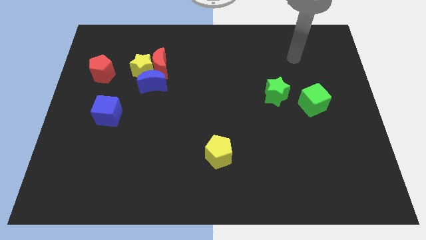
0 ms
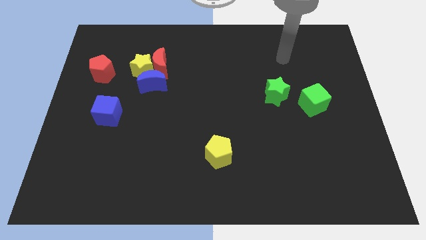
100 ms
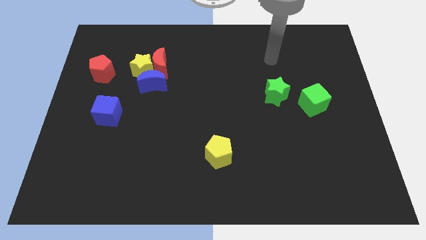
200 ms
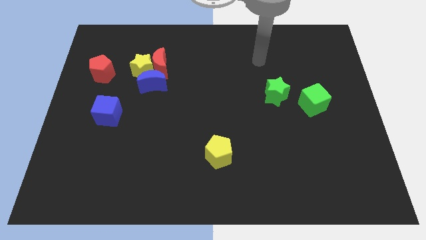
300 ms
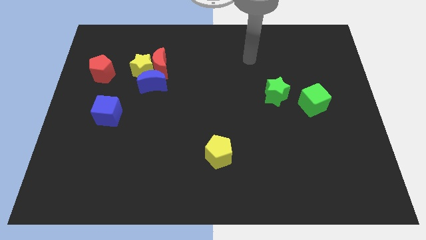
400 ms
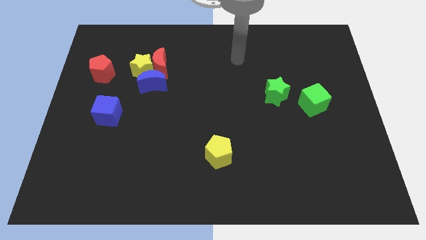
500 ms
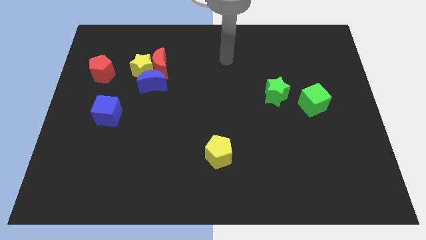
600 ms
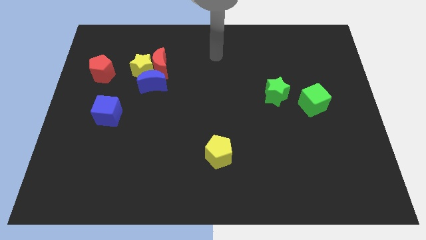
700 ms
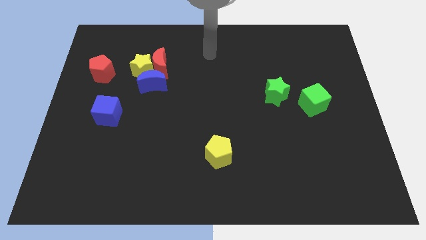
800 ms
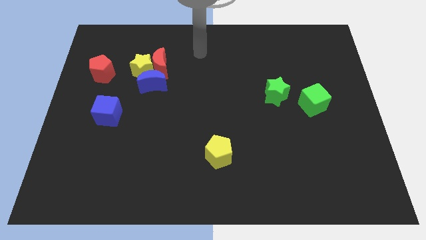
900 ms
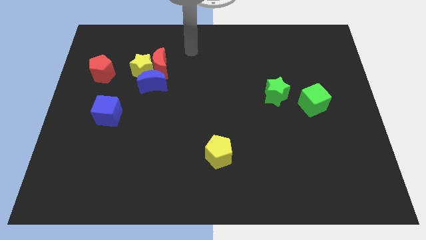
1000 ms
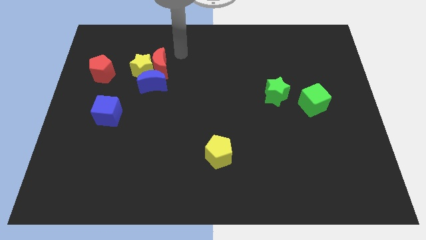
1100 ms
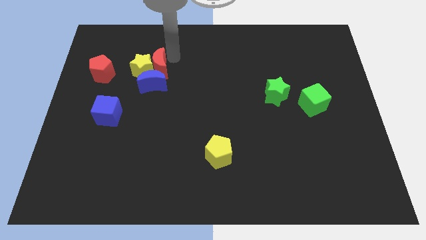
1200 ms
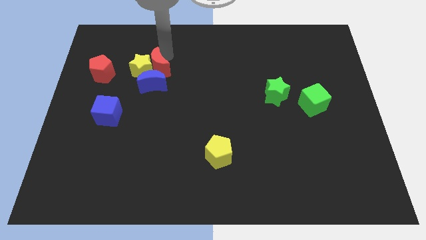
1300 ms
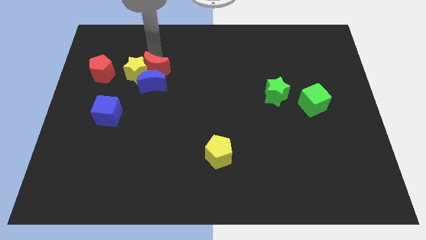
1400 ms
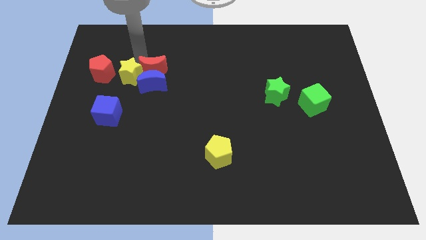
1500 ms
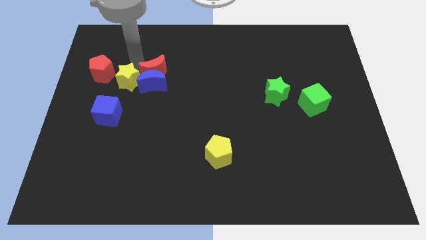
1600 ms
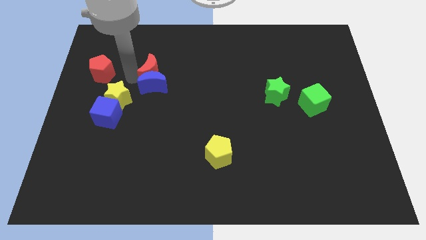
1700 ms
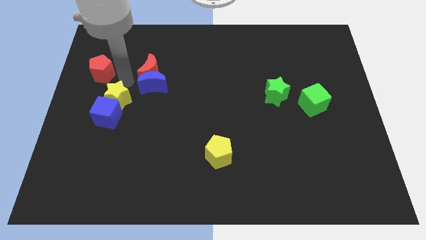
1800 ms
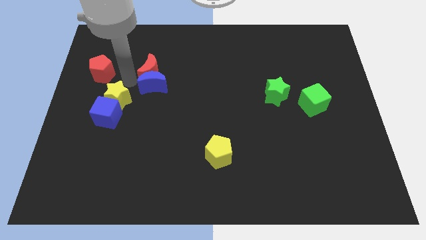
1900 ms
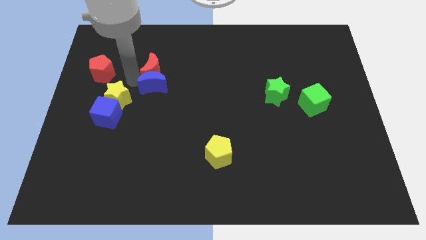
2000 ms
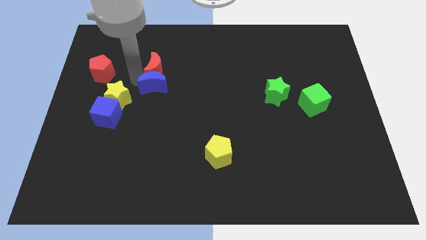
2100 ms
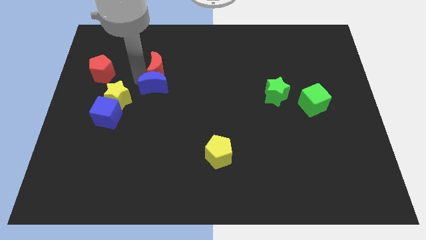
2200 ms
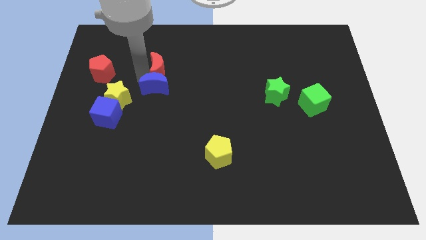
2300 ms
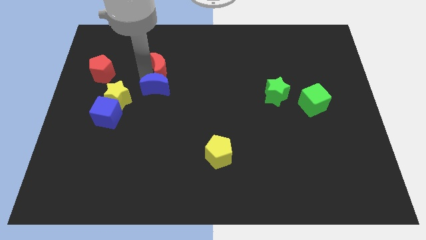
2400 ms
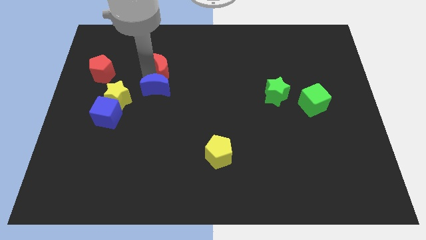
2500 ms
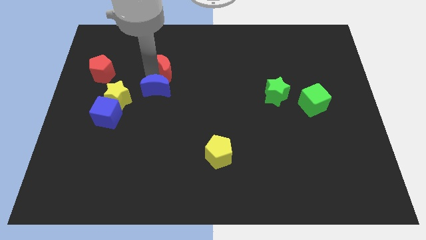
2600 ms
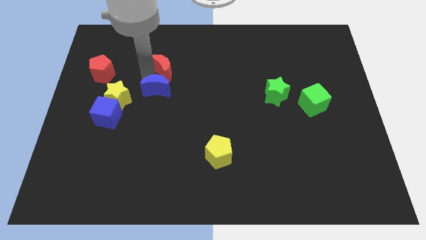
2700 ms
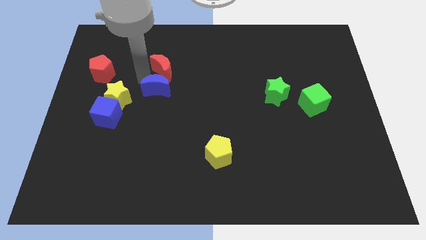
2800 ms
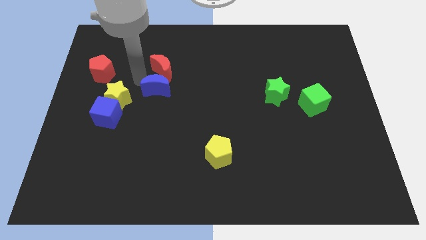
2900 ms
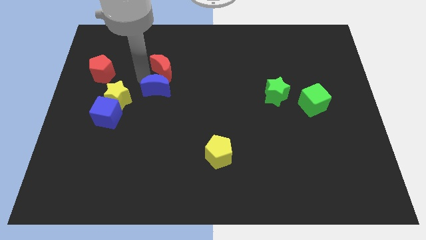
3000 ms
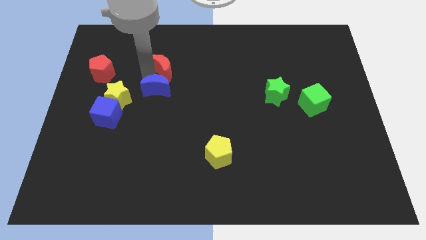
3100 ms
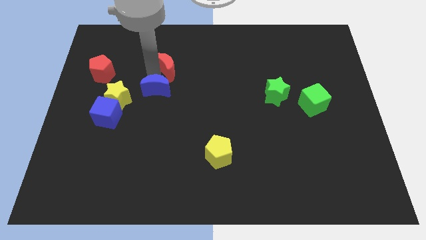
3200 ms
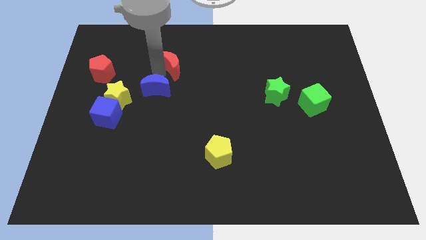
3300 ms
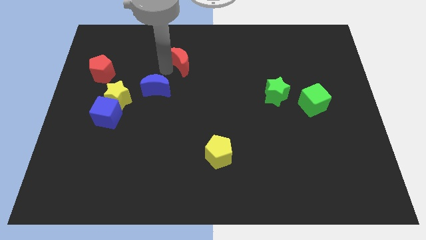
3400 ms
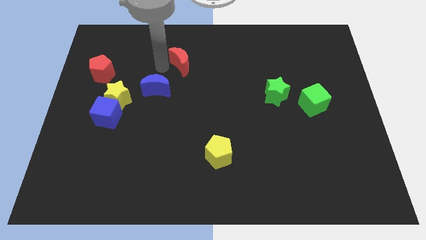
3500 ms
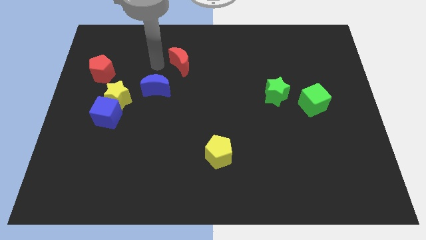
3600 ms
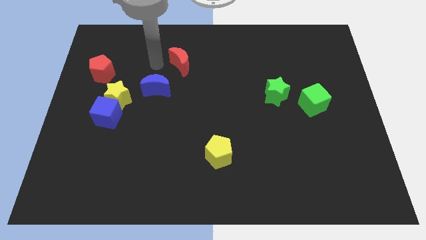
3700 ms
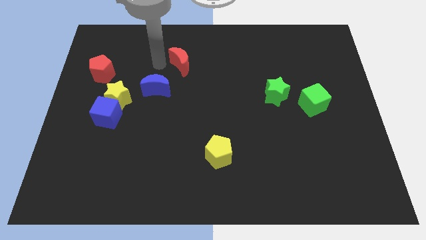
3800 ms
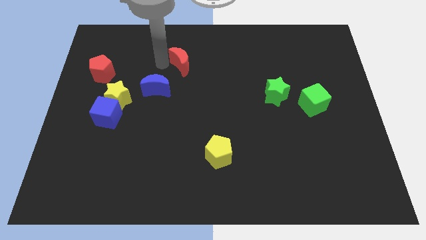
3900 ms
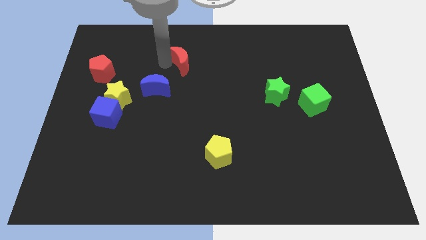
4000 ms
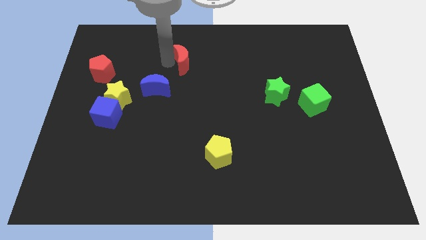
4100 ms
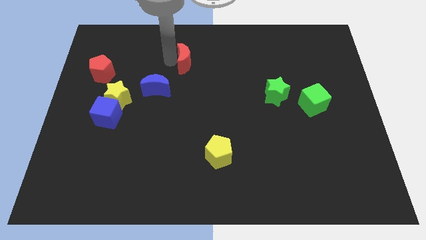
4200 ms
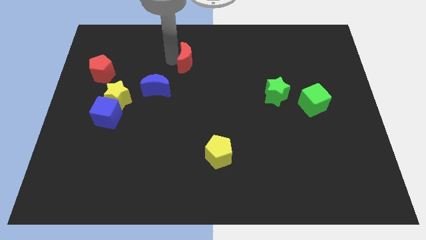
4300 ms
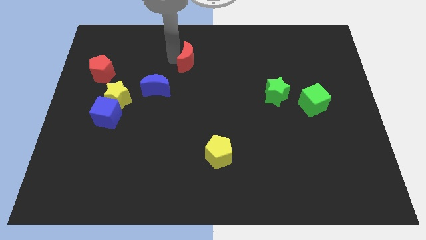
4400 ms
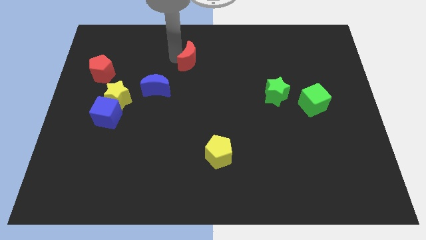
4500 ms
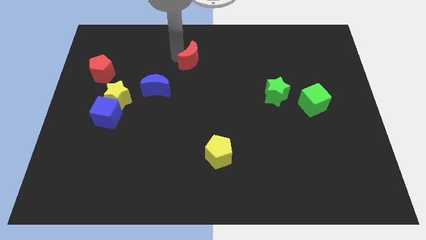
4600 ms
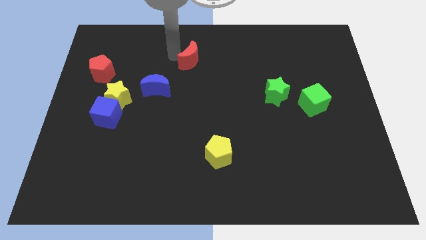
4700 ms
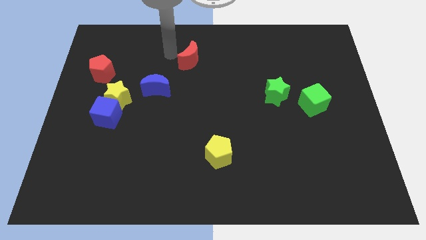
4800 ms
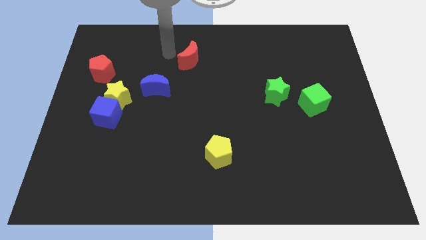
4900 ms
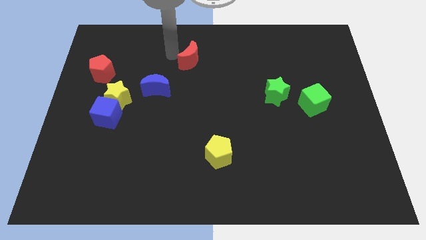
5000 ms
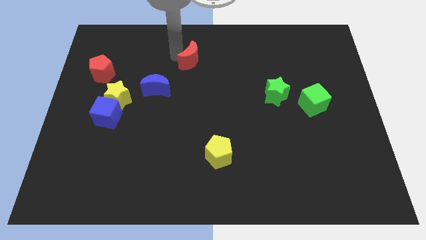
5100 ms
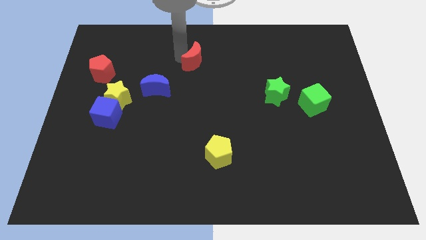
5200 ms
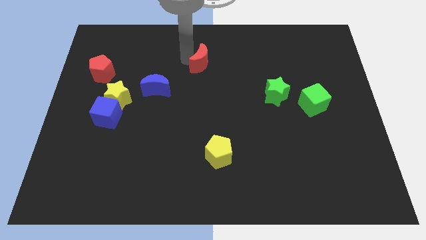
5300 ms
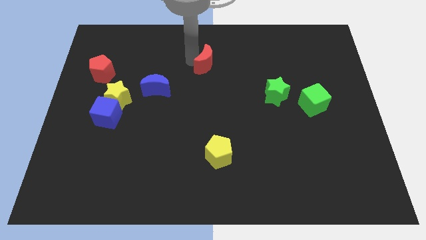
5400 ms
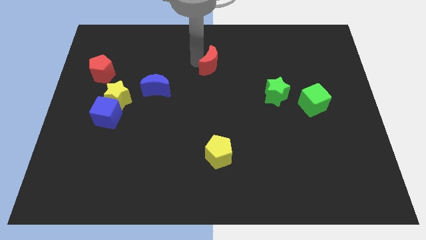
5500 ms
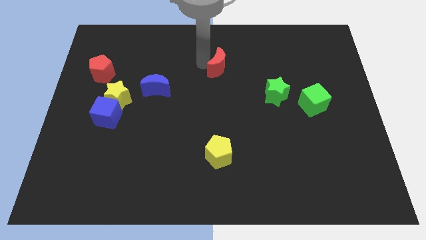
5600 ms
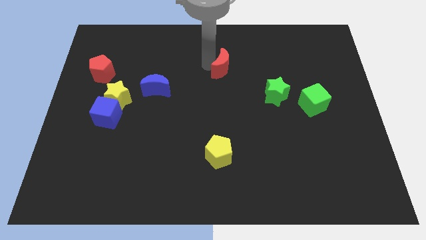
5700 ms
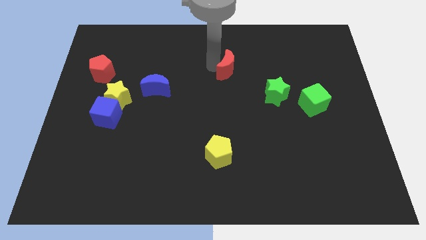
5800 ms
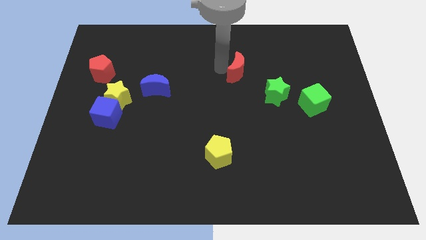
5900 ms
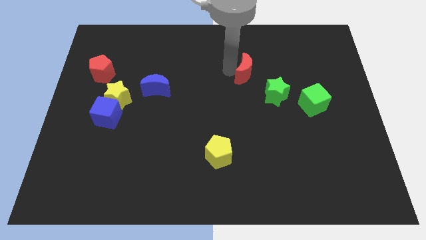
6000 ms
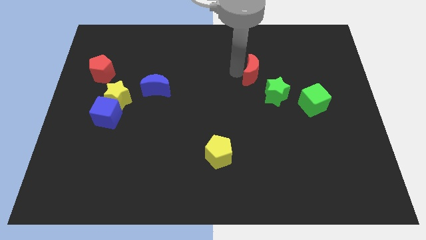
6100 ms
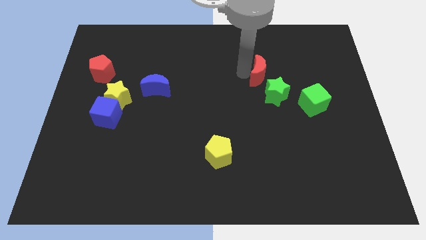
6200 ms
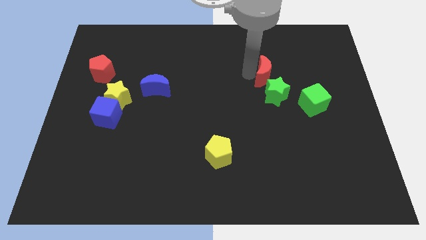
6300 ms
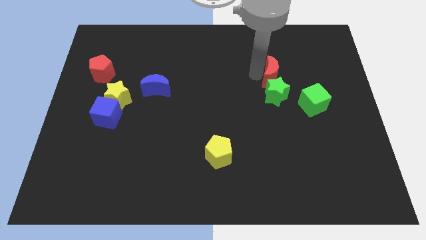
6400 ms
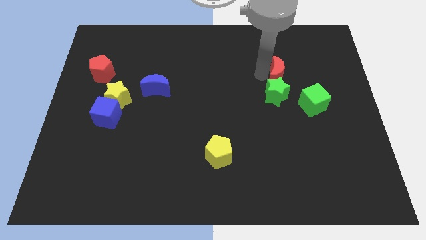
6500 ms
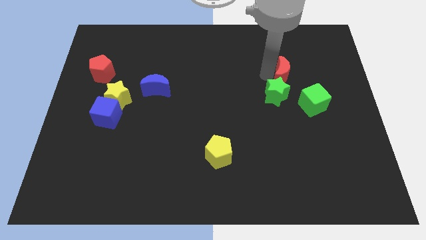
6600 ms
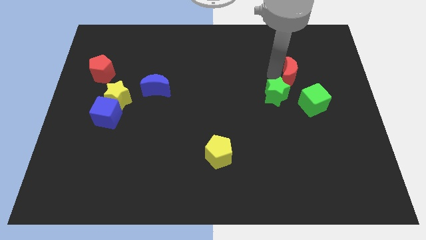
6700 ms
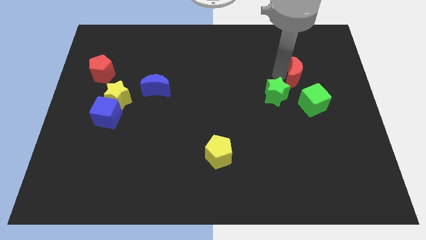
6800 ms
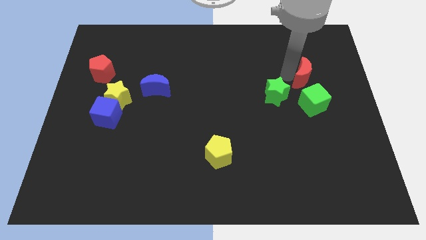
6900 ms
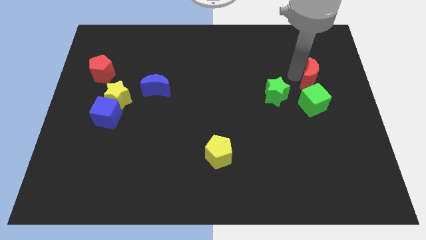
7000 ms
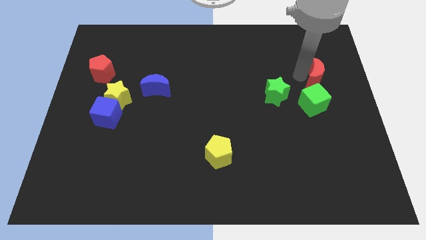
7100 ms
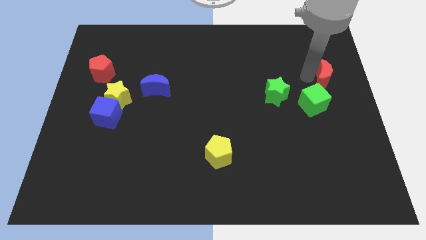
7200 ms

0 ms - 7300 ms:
put the red moon to the right side
